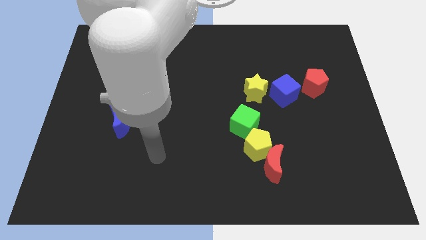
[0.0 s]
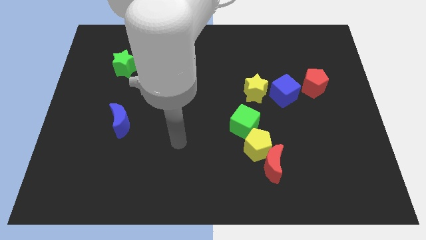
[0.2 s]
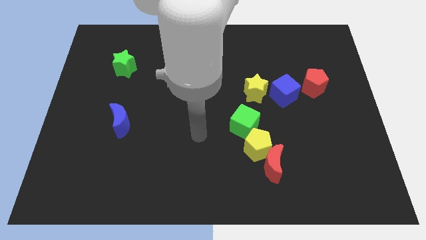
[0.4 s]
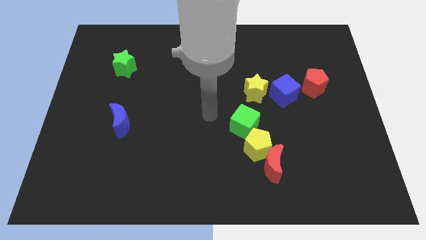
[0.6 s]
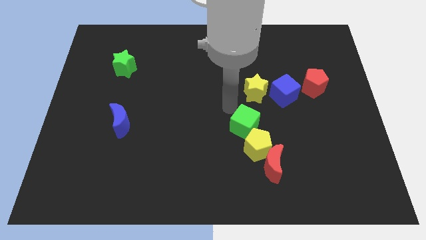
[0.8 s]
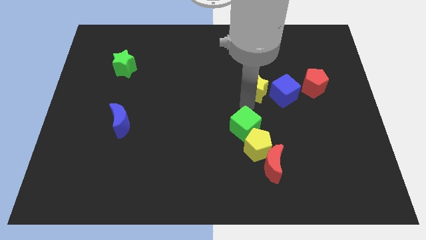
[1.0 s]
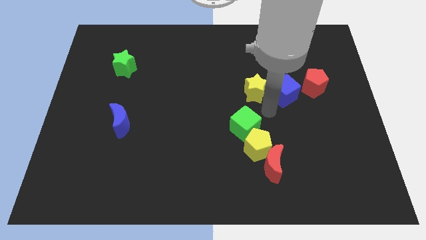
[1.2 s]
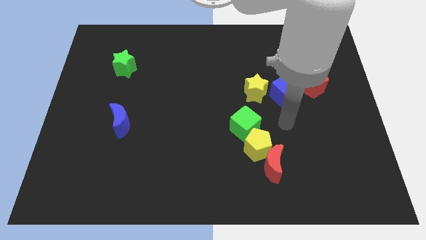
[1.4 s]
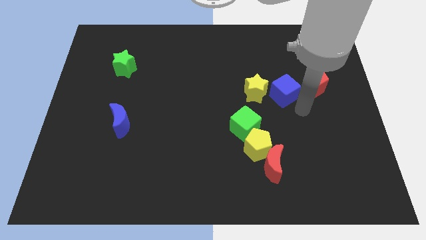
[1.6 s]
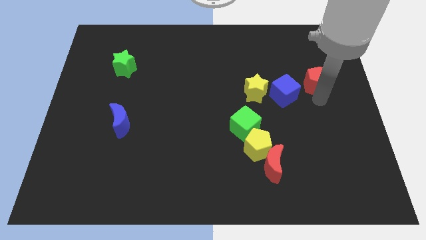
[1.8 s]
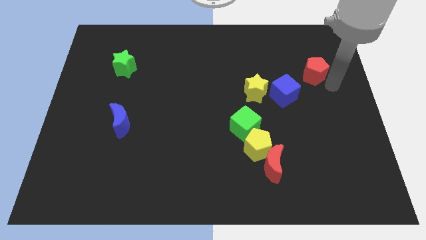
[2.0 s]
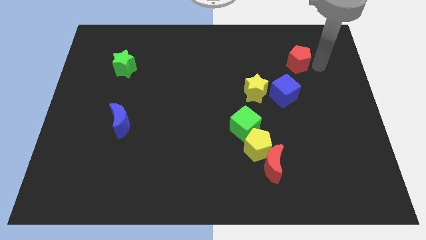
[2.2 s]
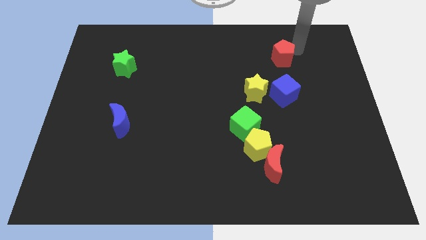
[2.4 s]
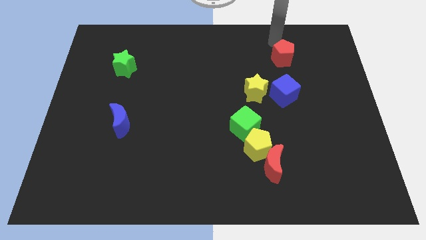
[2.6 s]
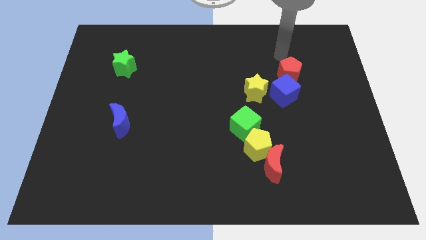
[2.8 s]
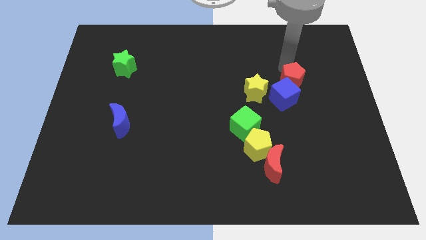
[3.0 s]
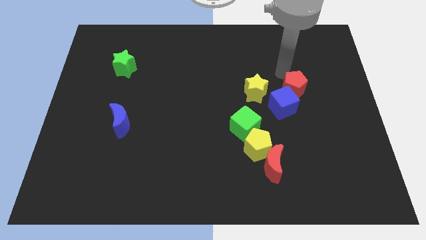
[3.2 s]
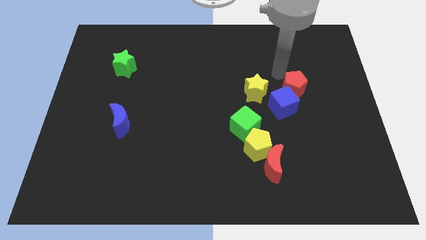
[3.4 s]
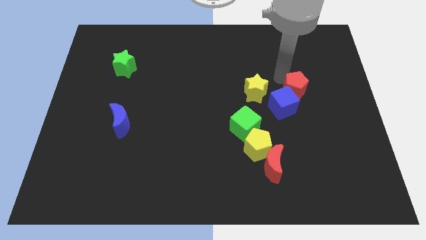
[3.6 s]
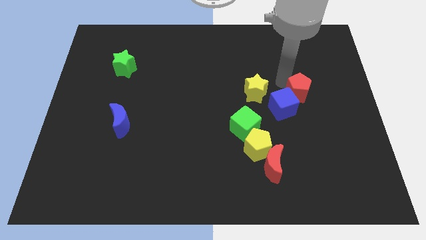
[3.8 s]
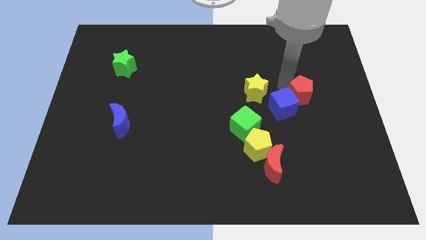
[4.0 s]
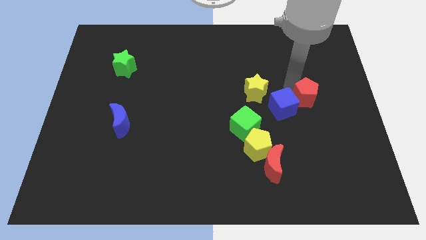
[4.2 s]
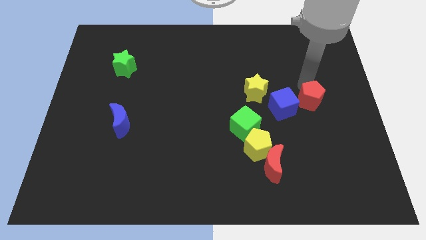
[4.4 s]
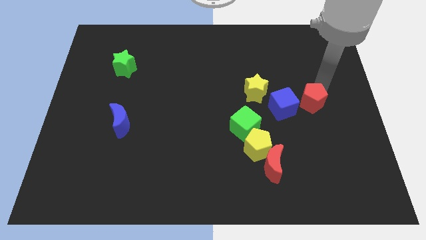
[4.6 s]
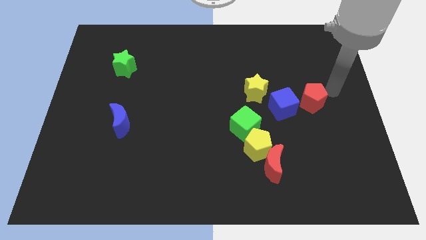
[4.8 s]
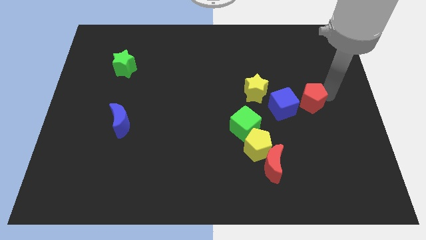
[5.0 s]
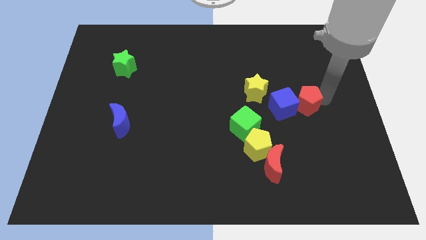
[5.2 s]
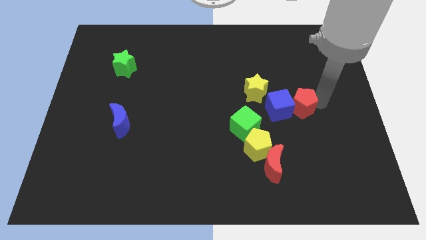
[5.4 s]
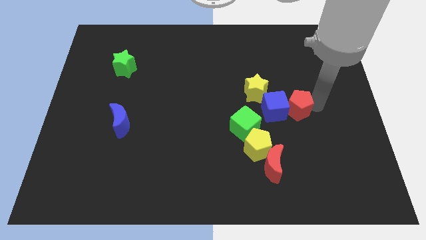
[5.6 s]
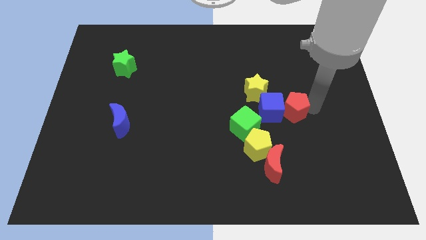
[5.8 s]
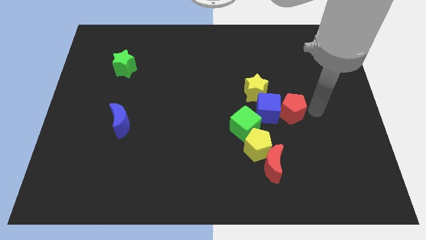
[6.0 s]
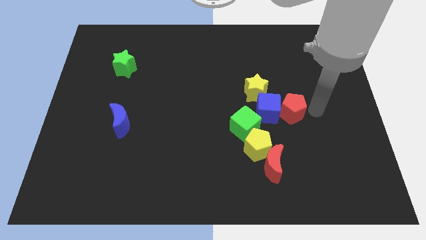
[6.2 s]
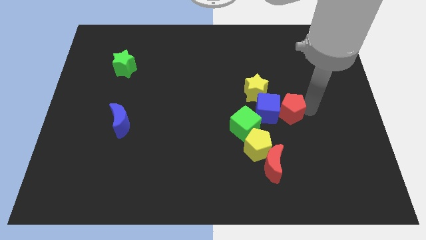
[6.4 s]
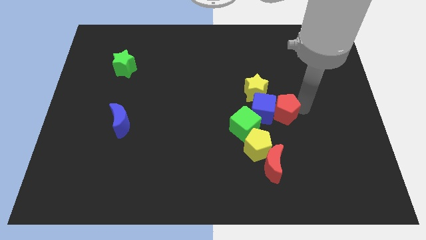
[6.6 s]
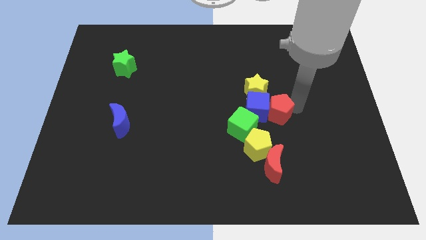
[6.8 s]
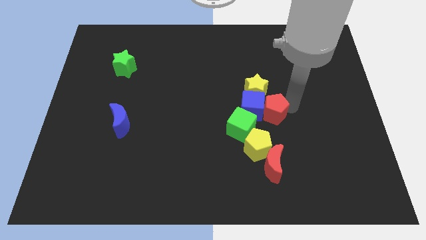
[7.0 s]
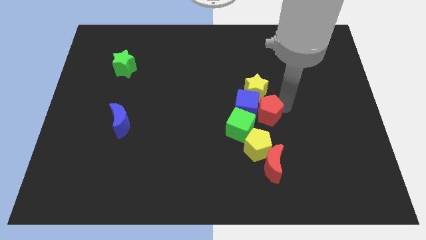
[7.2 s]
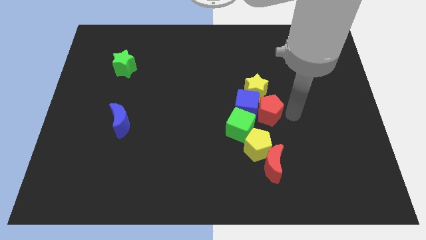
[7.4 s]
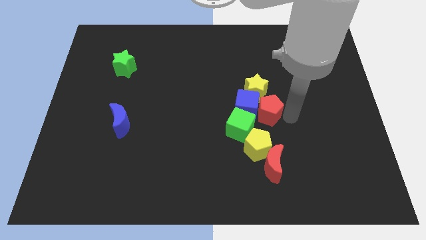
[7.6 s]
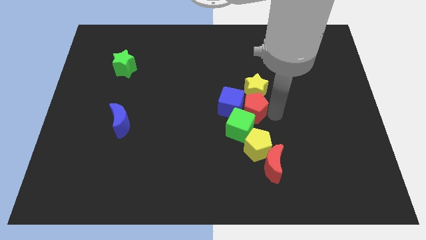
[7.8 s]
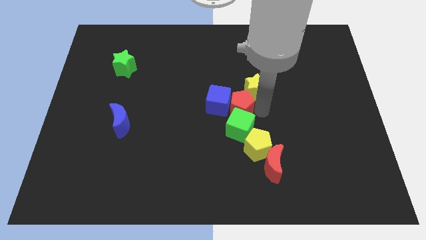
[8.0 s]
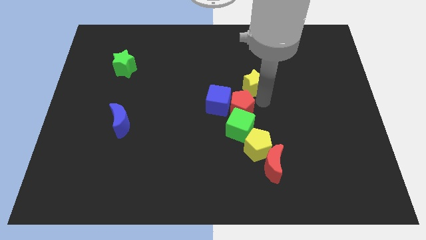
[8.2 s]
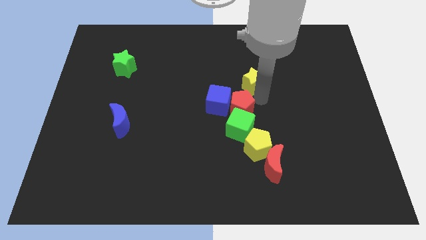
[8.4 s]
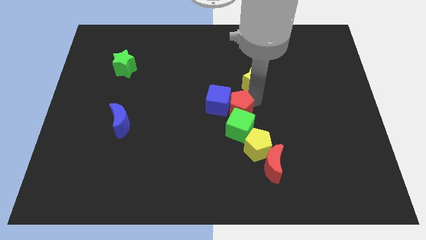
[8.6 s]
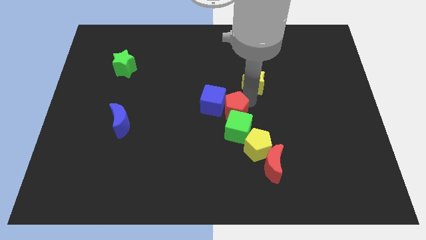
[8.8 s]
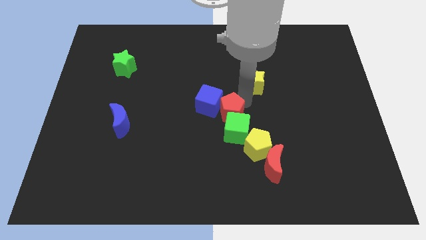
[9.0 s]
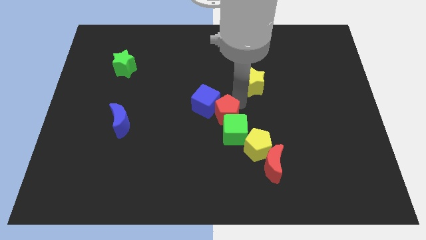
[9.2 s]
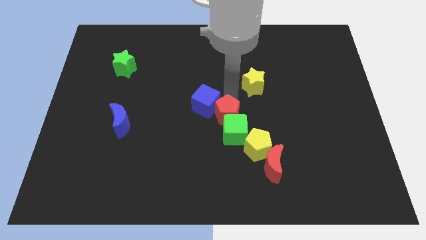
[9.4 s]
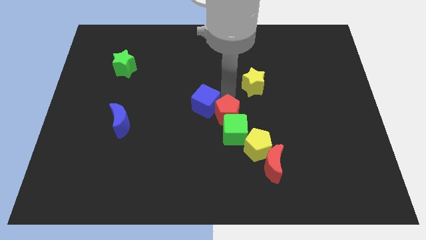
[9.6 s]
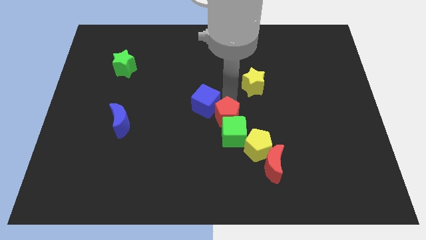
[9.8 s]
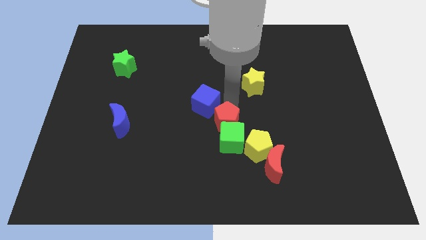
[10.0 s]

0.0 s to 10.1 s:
slide the red pentagon downwards and then to the left

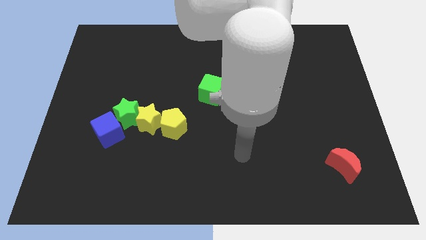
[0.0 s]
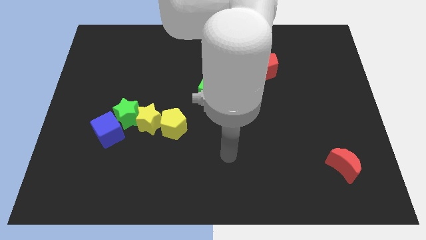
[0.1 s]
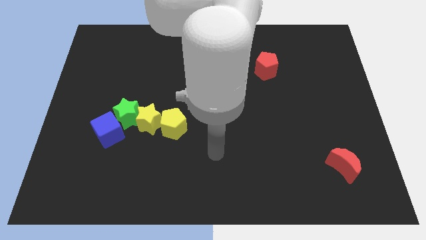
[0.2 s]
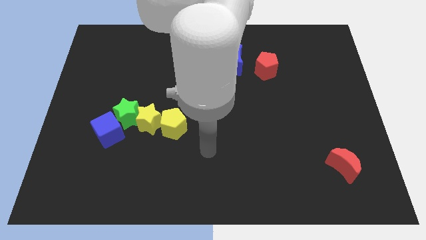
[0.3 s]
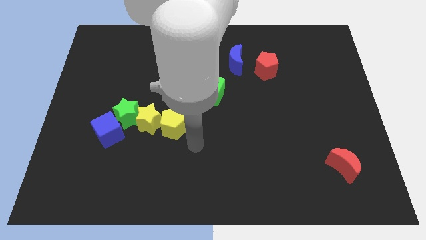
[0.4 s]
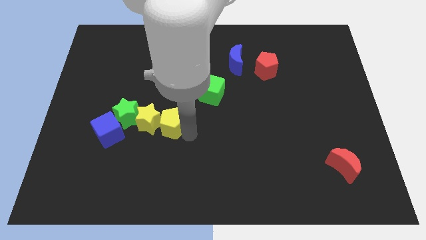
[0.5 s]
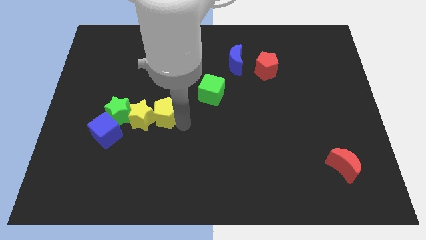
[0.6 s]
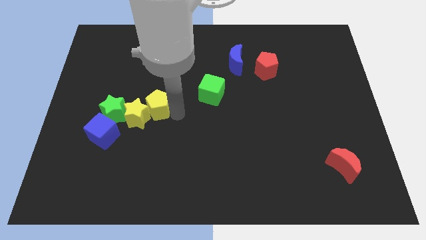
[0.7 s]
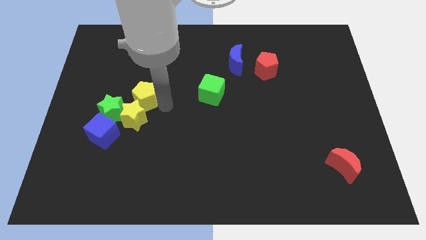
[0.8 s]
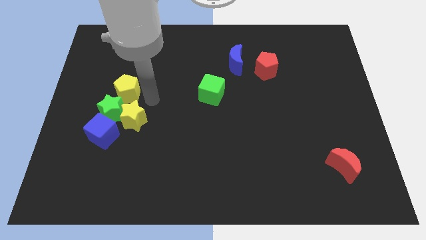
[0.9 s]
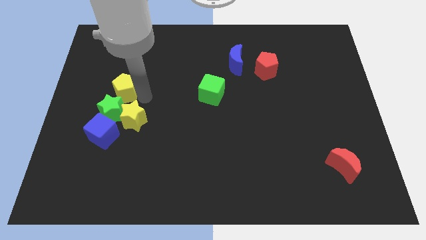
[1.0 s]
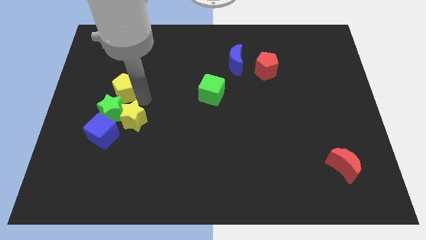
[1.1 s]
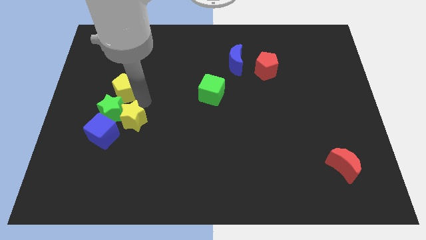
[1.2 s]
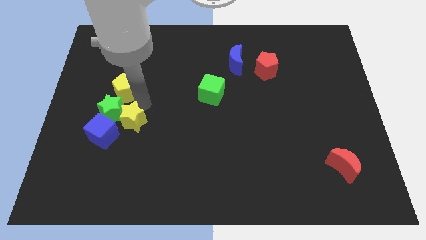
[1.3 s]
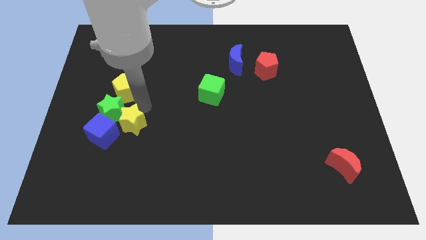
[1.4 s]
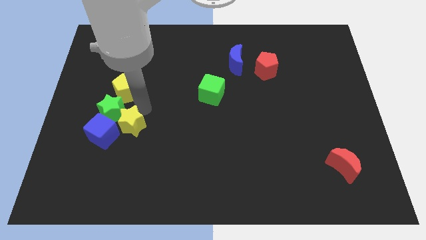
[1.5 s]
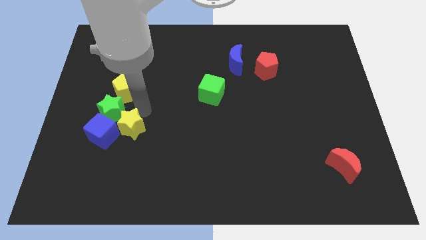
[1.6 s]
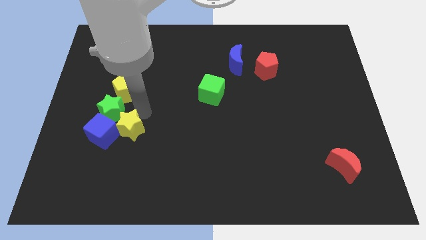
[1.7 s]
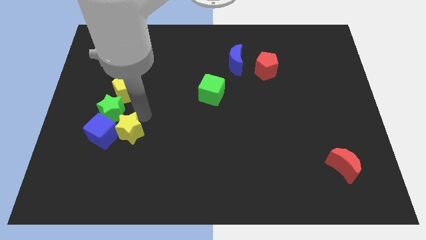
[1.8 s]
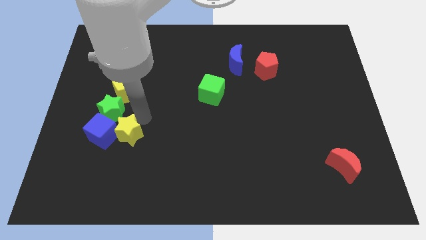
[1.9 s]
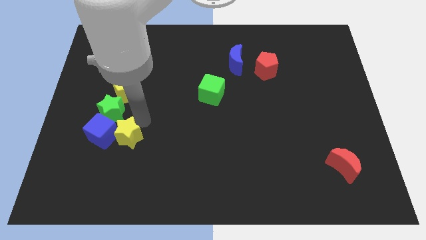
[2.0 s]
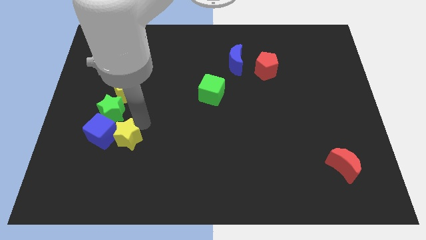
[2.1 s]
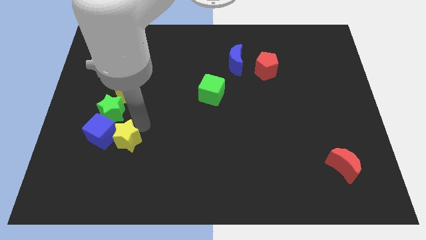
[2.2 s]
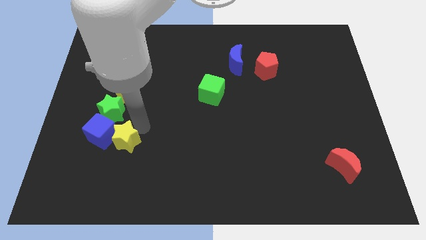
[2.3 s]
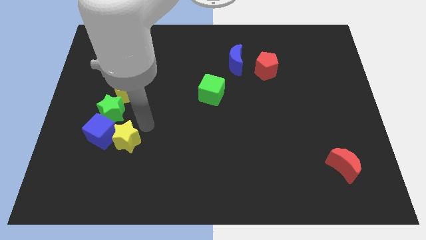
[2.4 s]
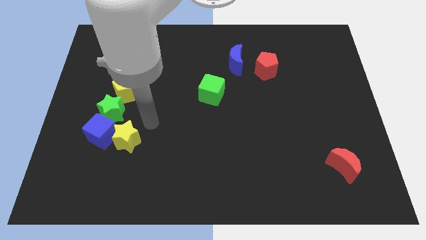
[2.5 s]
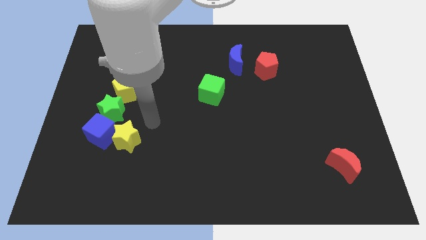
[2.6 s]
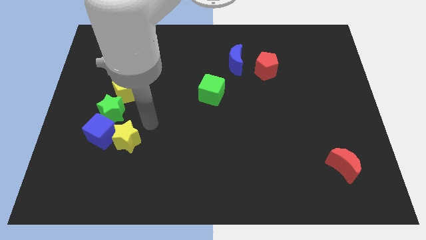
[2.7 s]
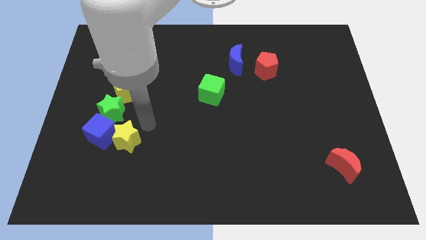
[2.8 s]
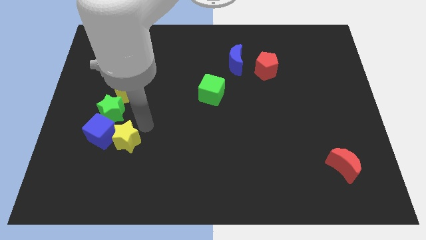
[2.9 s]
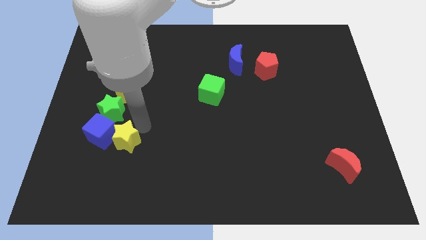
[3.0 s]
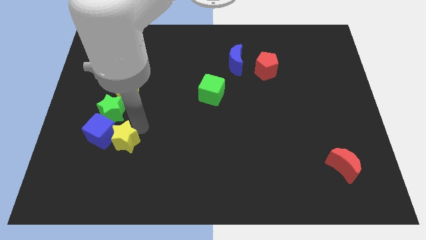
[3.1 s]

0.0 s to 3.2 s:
slide the yellow star a little down and then to the left
